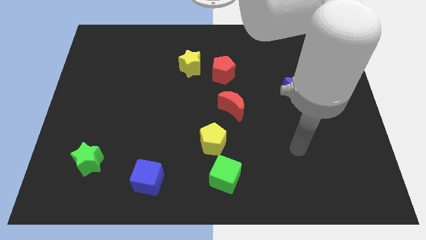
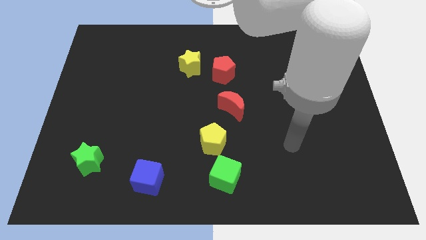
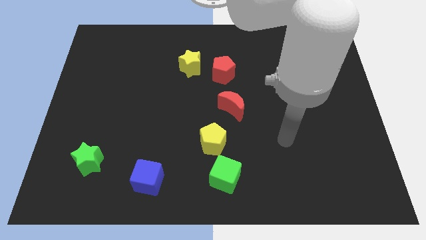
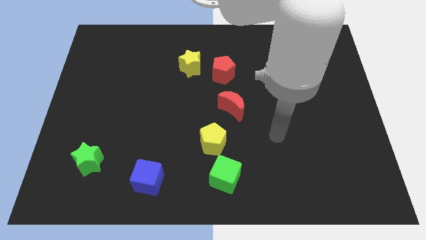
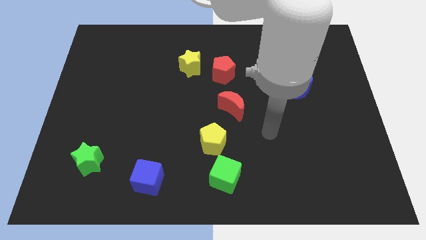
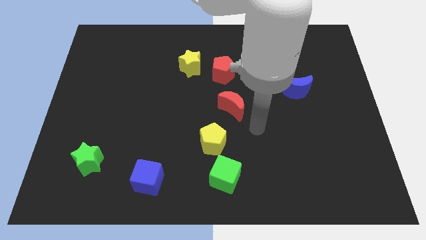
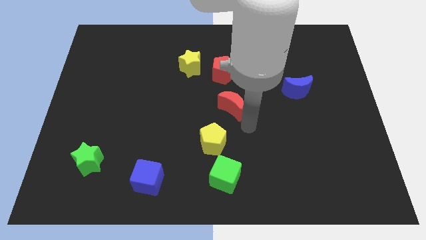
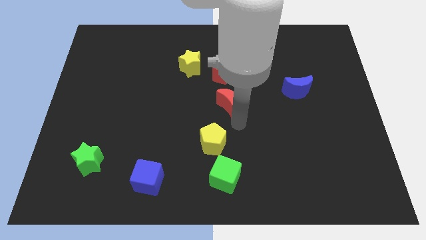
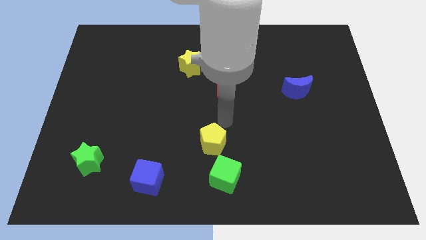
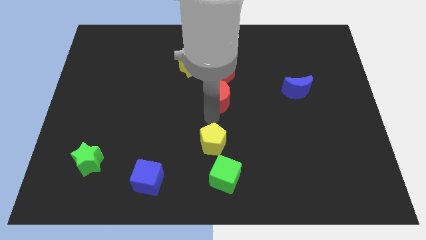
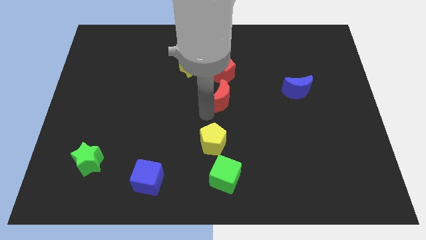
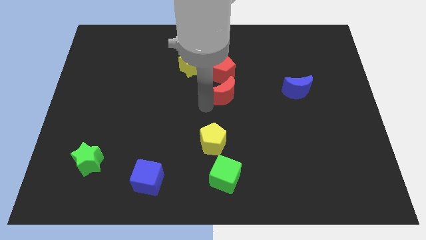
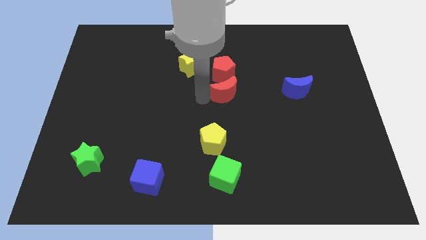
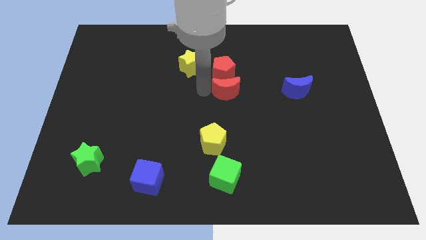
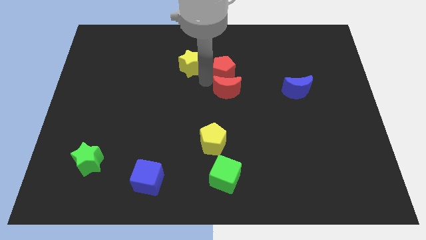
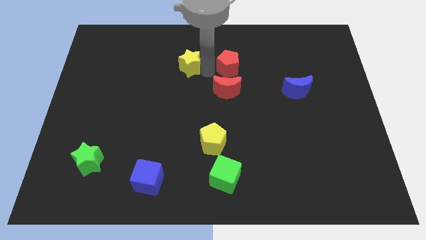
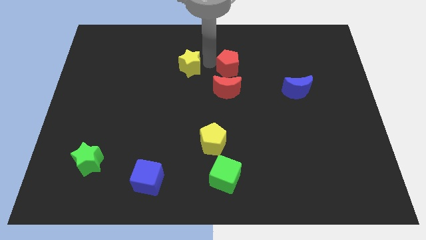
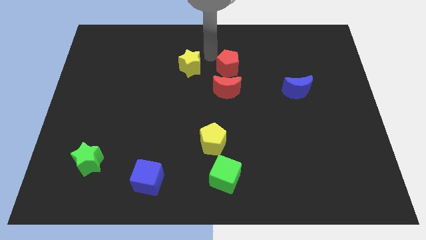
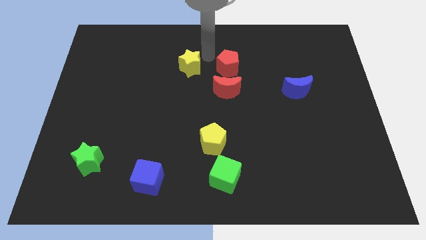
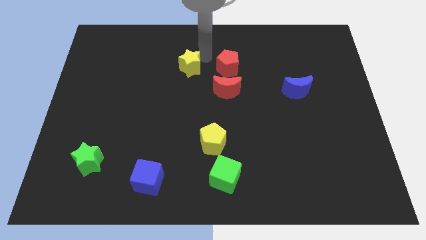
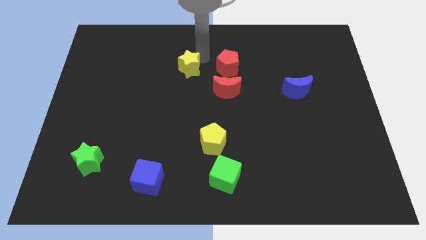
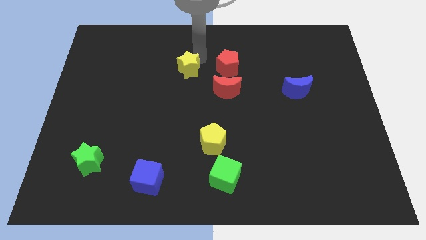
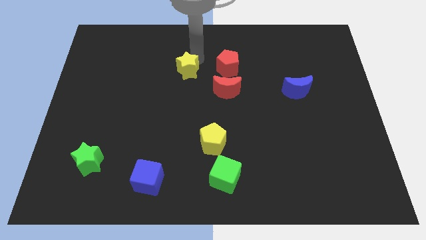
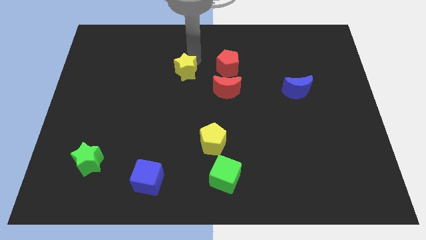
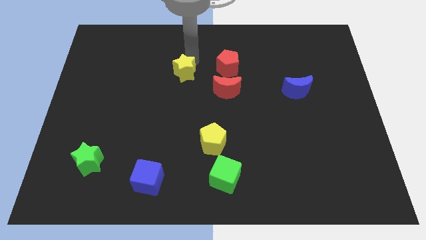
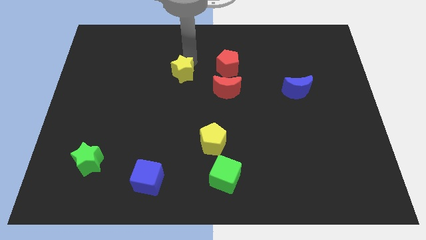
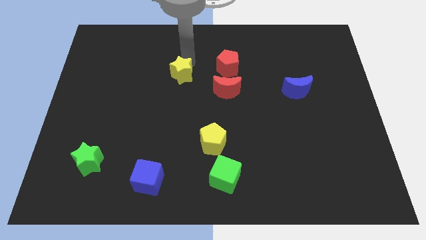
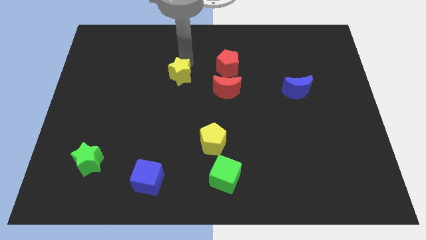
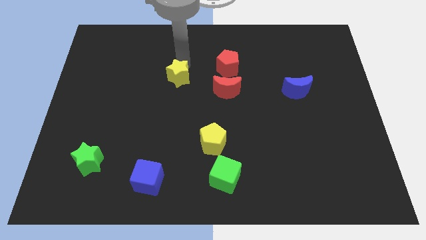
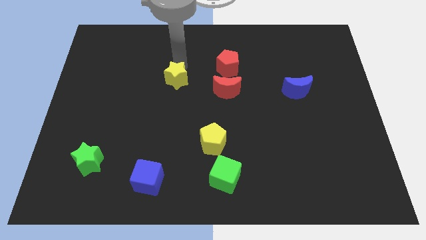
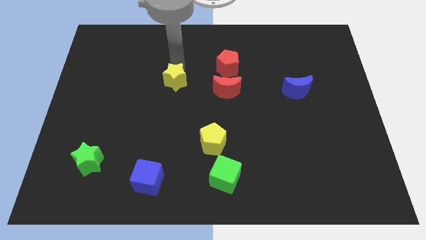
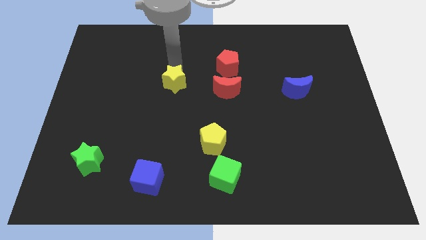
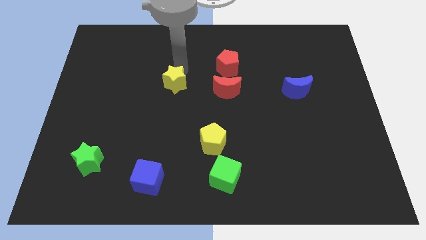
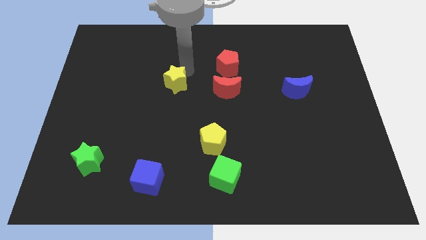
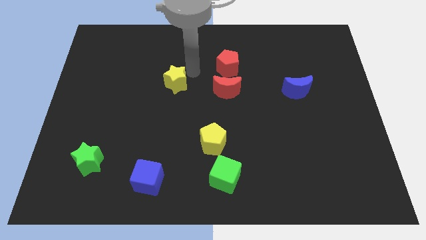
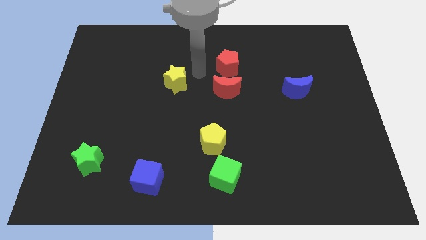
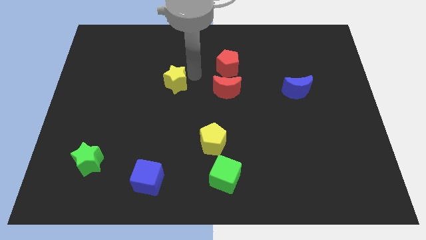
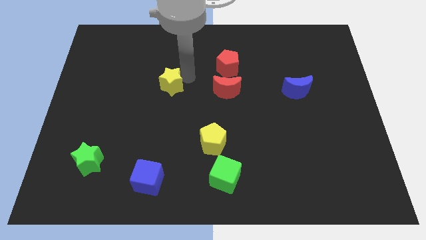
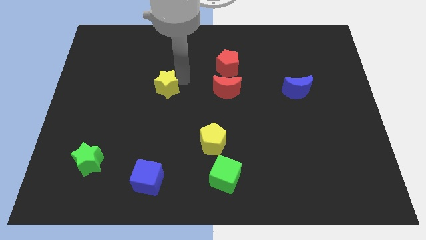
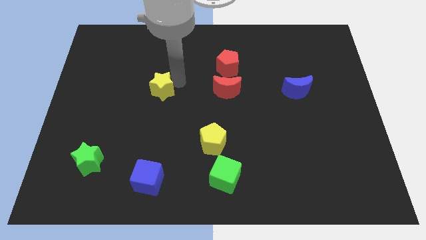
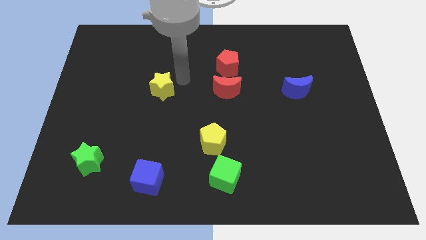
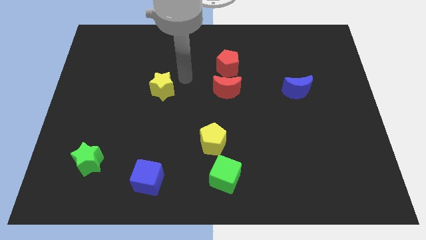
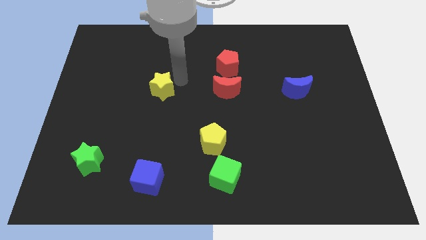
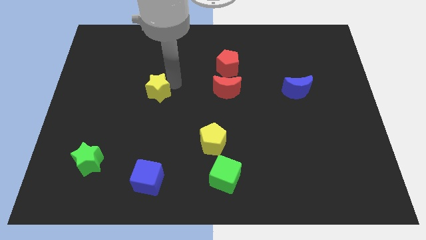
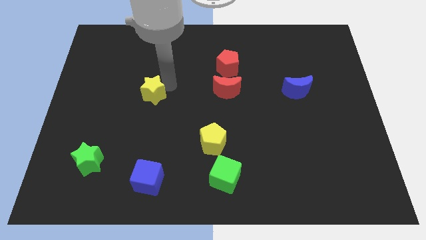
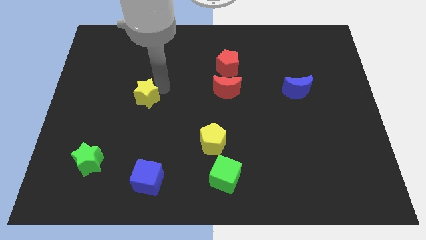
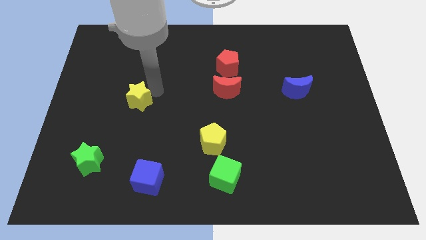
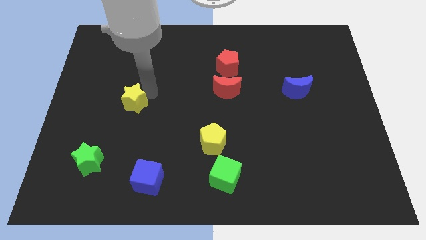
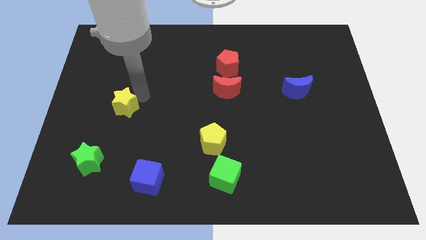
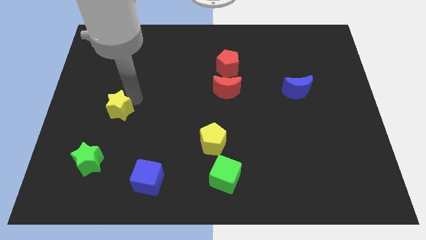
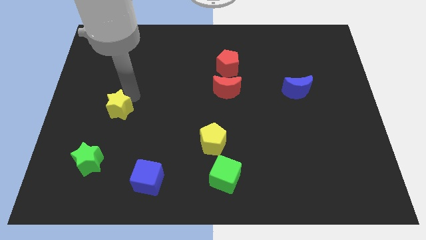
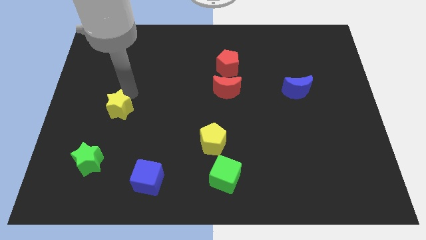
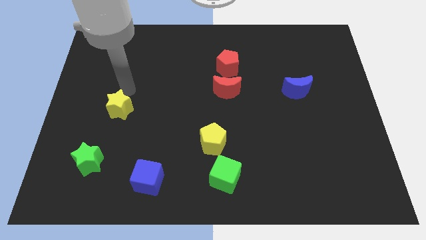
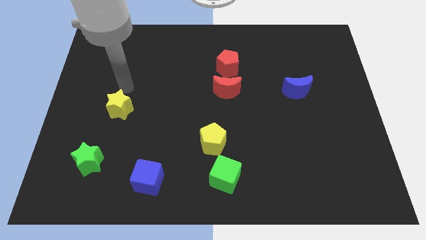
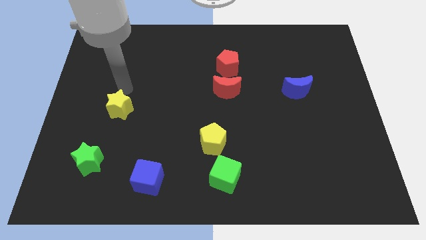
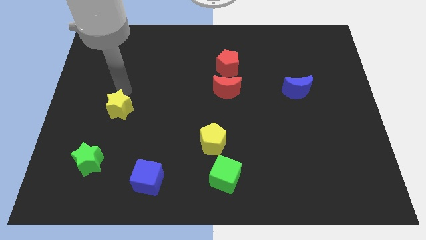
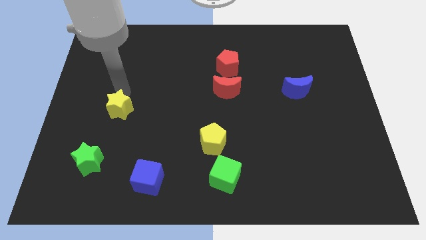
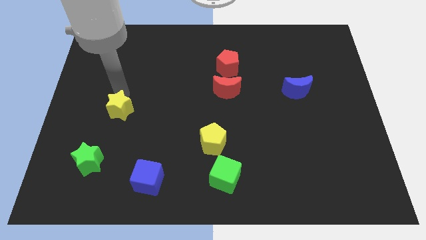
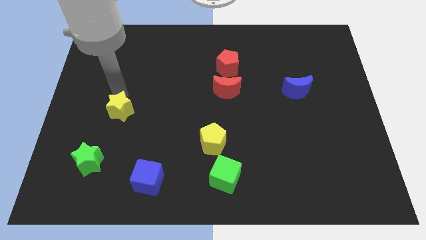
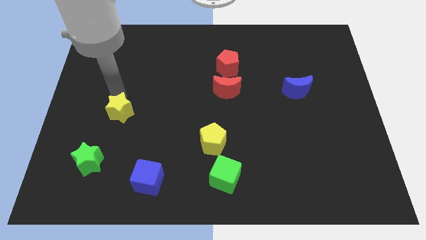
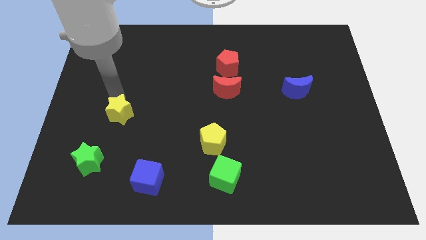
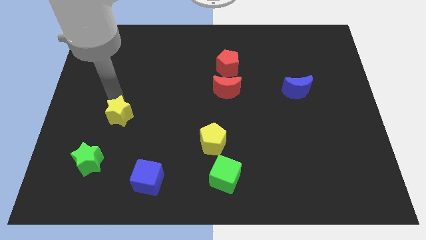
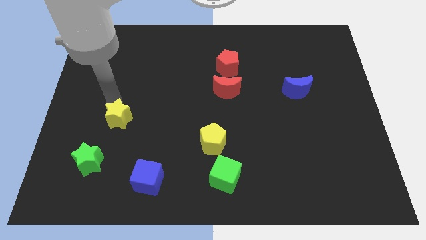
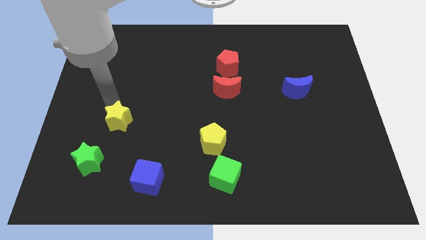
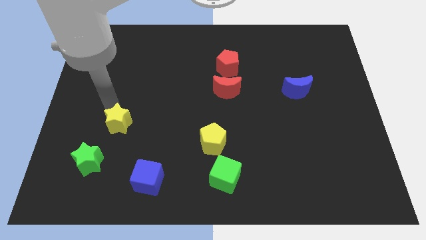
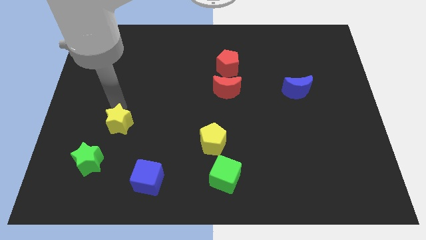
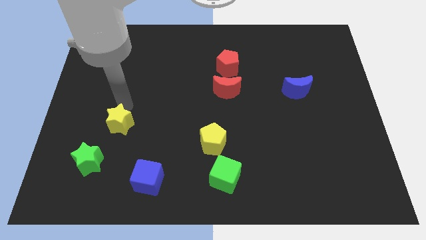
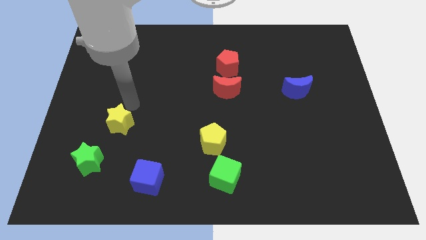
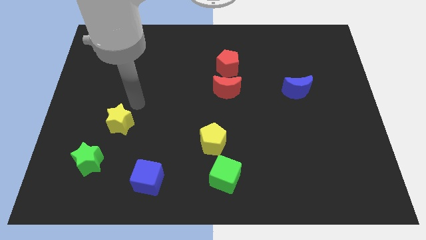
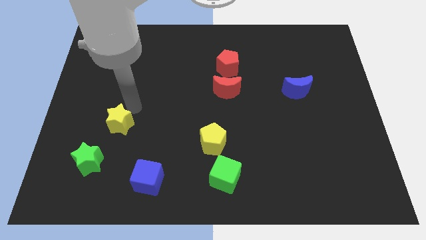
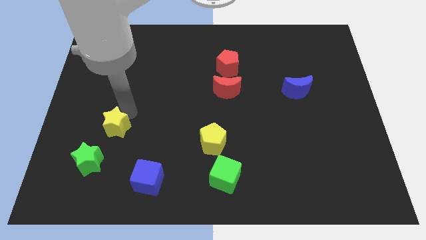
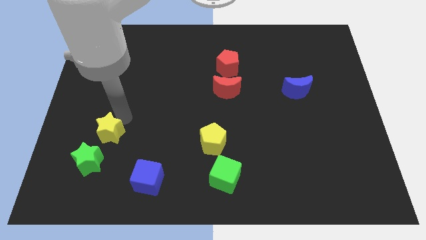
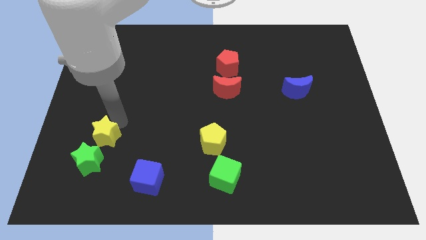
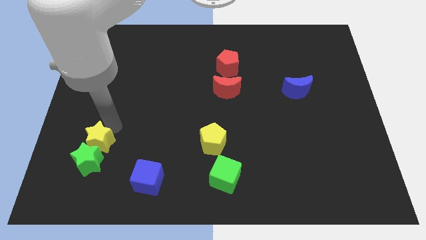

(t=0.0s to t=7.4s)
slide the yellow star next to the green star

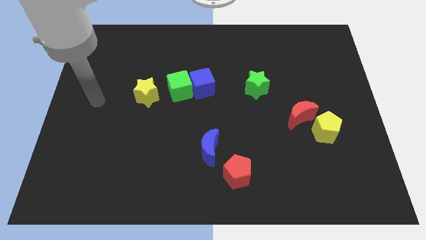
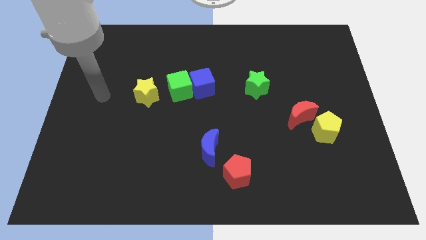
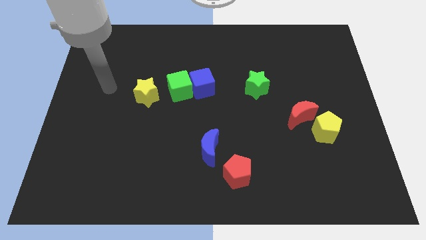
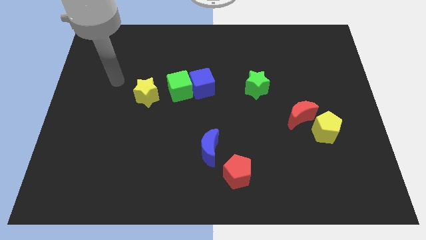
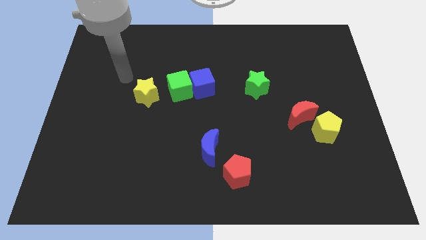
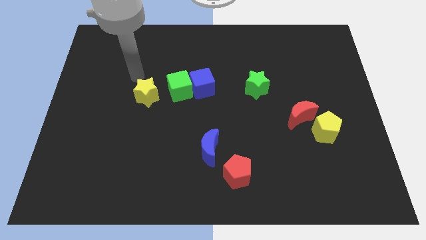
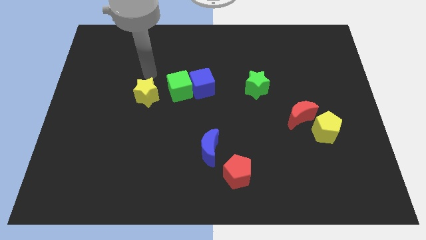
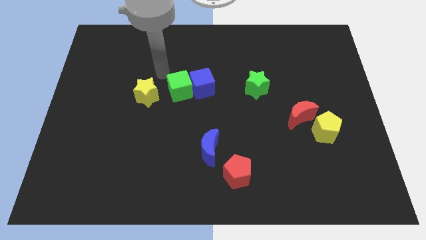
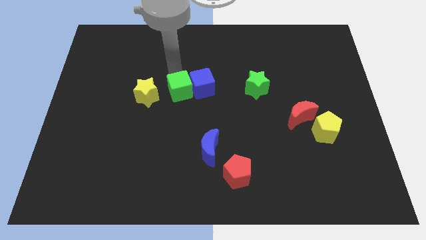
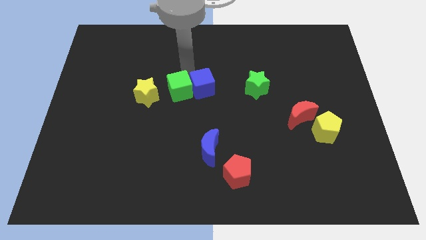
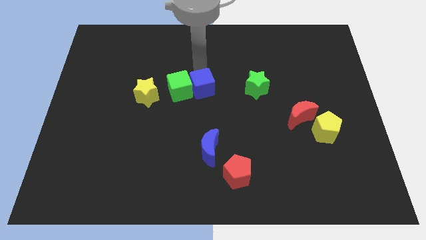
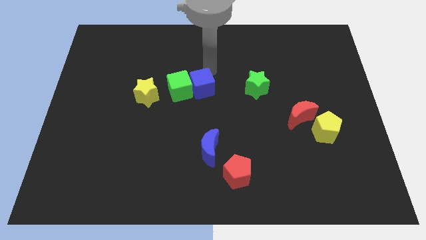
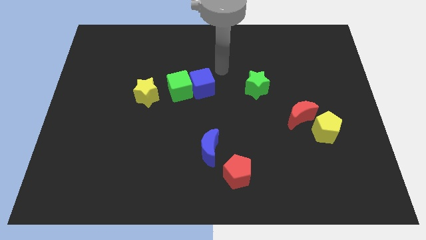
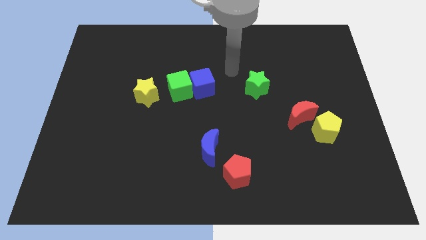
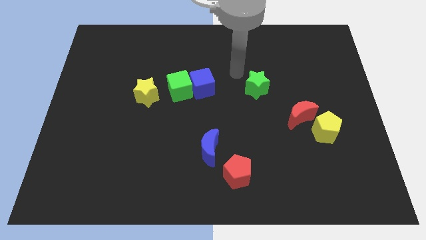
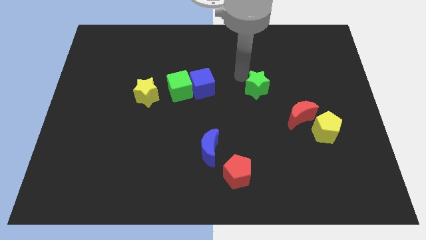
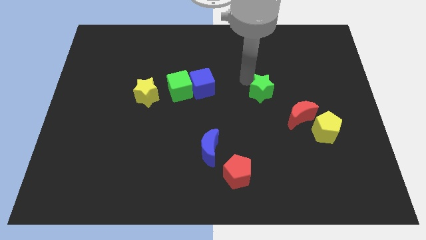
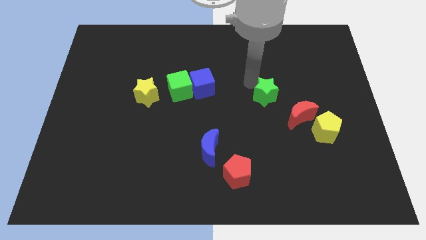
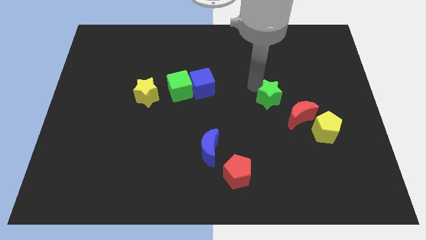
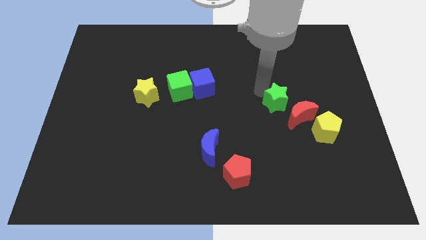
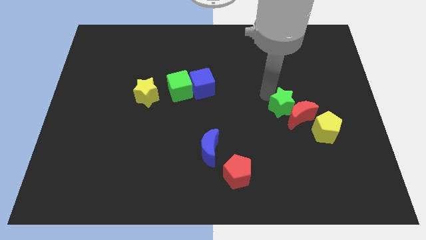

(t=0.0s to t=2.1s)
move the green star close to the red moon
